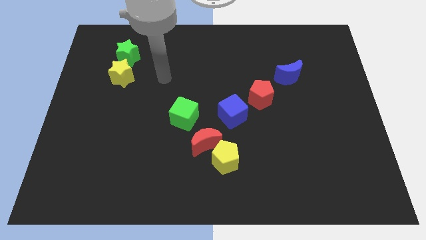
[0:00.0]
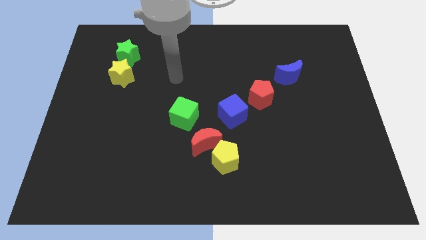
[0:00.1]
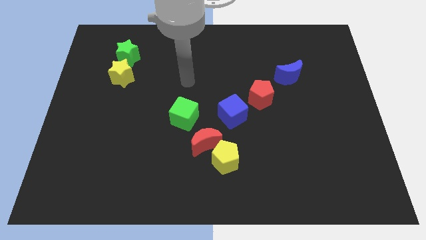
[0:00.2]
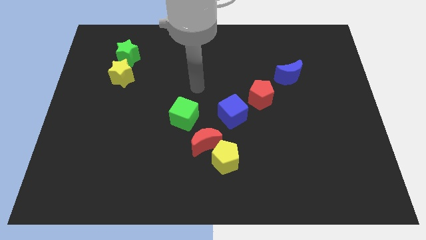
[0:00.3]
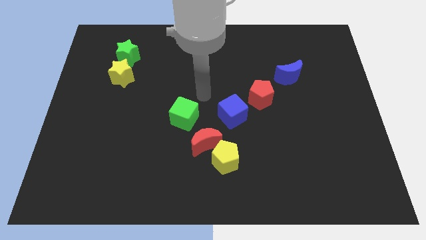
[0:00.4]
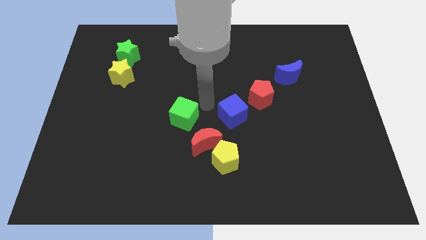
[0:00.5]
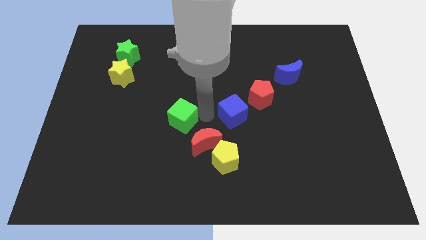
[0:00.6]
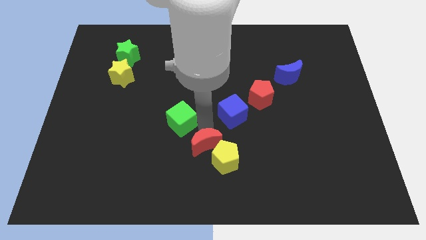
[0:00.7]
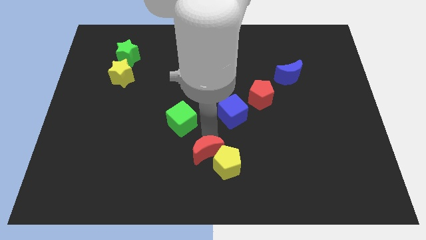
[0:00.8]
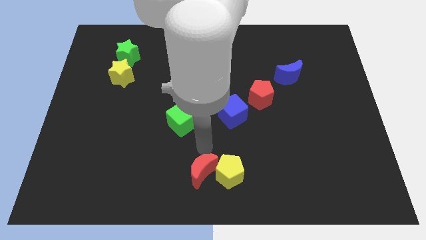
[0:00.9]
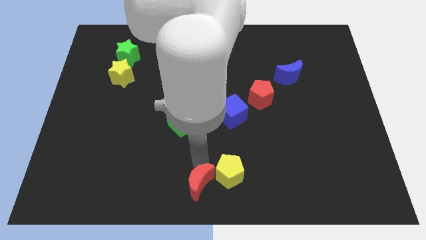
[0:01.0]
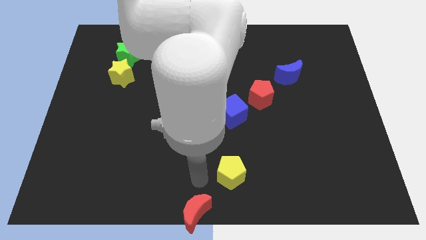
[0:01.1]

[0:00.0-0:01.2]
pull the yellow pentagon apart from the red moon

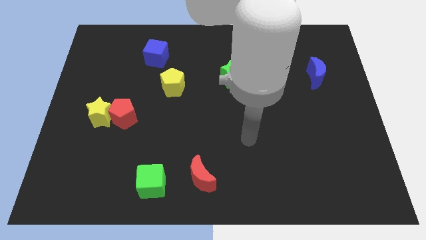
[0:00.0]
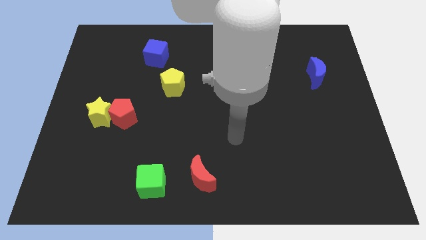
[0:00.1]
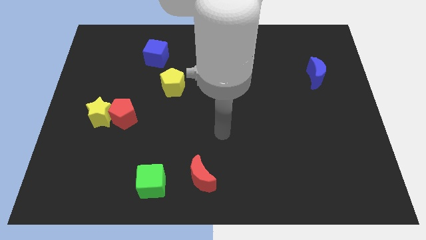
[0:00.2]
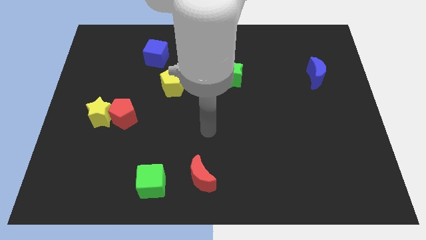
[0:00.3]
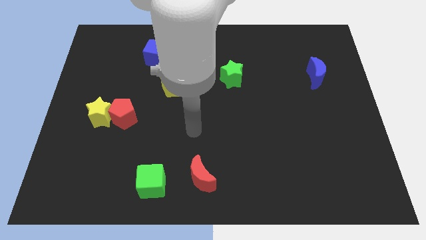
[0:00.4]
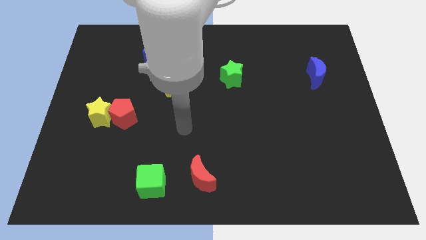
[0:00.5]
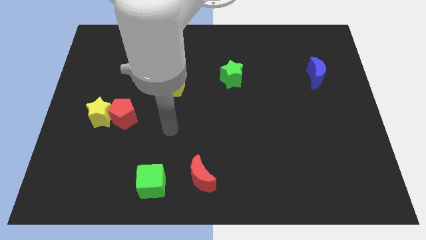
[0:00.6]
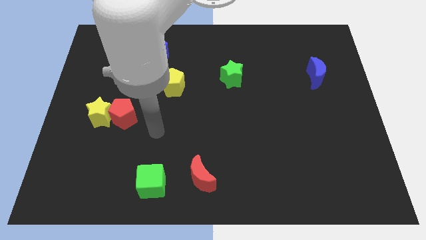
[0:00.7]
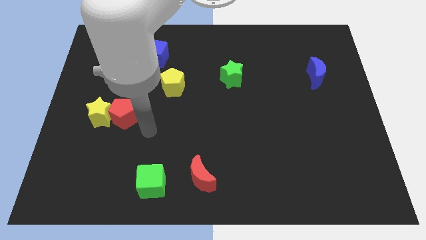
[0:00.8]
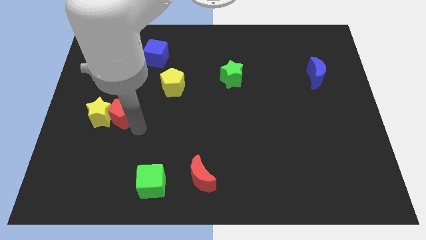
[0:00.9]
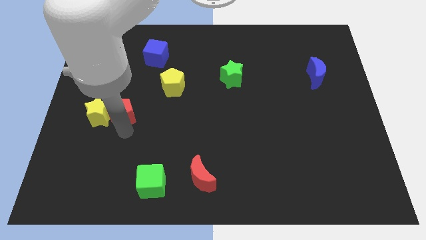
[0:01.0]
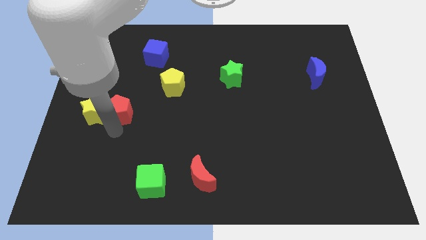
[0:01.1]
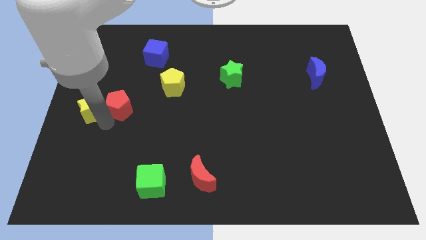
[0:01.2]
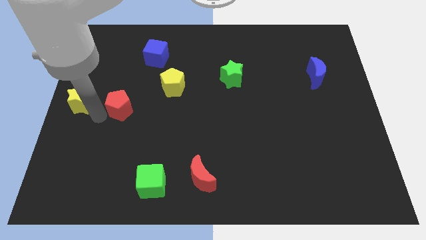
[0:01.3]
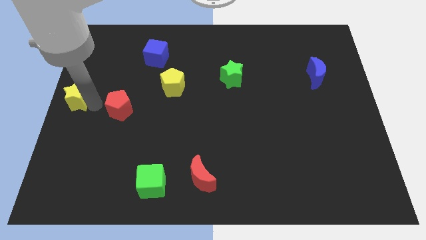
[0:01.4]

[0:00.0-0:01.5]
move the red pentagon away from the yellow star

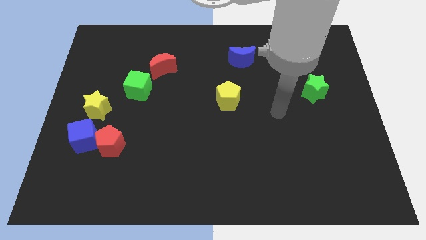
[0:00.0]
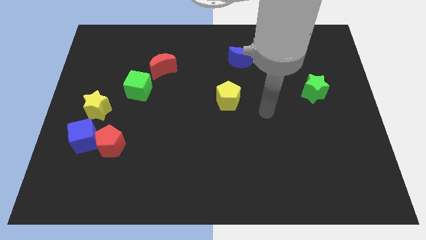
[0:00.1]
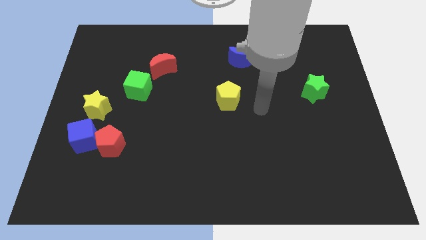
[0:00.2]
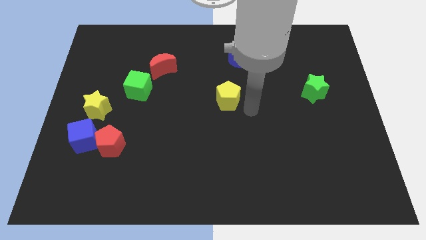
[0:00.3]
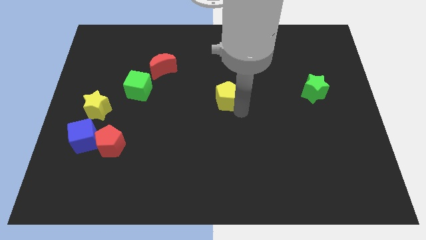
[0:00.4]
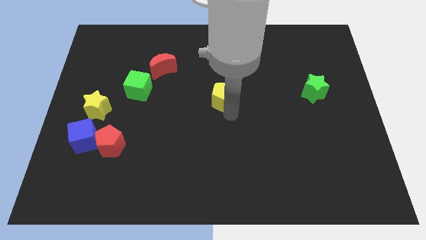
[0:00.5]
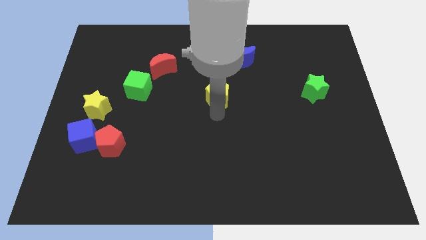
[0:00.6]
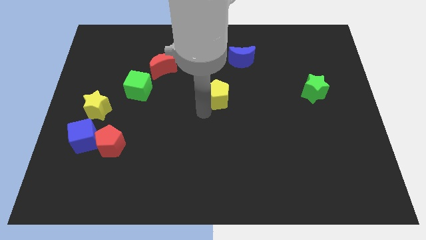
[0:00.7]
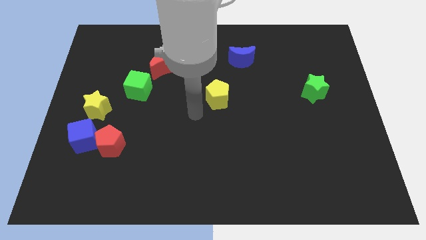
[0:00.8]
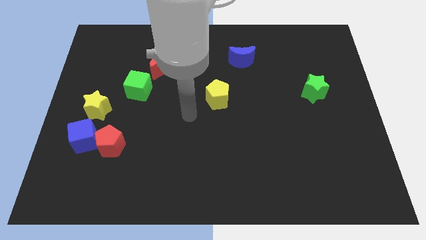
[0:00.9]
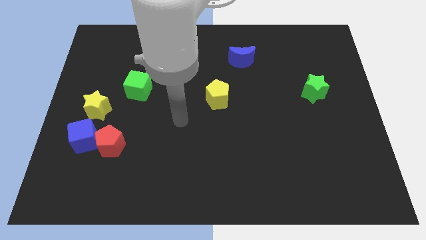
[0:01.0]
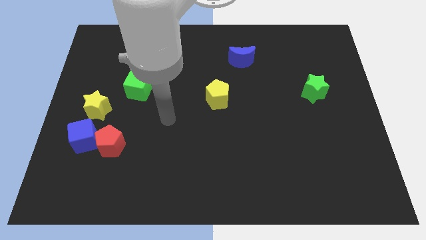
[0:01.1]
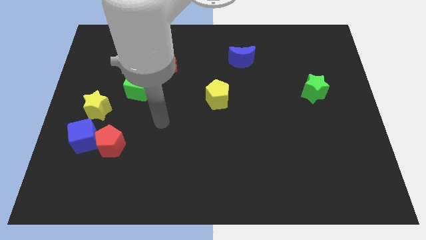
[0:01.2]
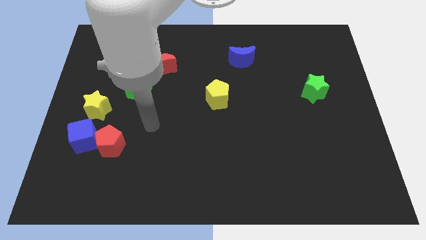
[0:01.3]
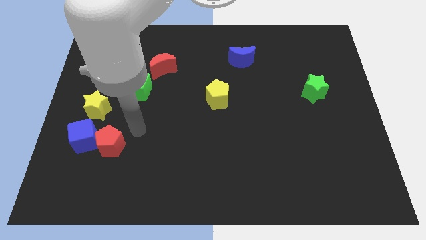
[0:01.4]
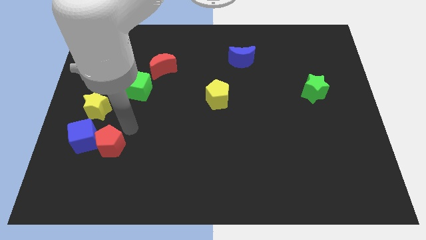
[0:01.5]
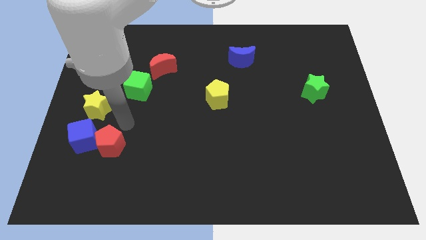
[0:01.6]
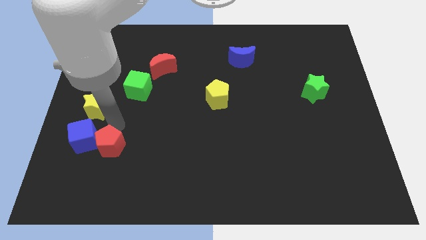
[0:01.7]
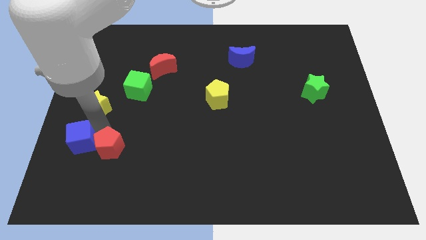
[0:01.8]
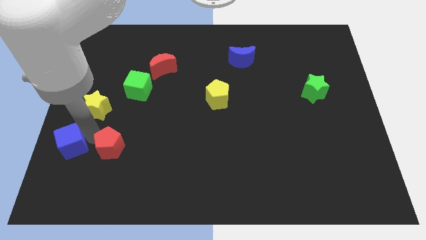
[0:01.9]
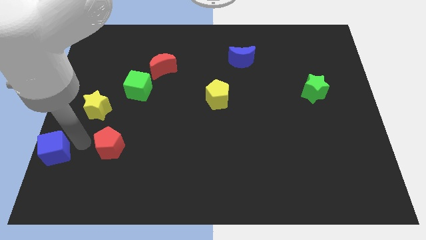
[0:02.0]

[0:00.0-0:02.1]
separate the red pentagon from the blue cube

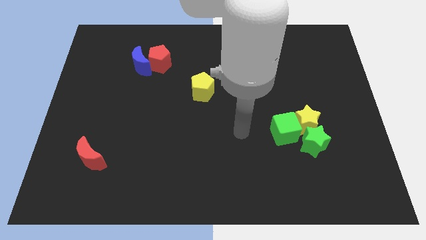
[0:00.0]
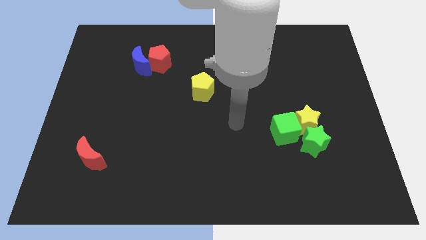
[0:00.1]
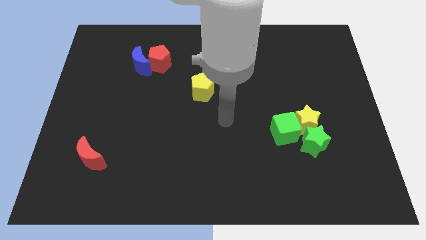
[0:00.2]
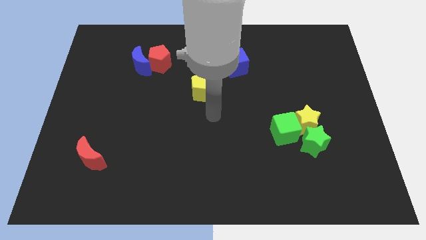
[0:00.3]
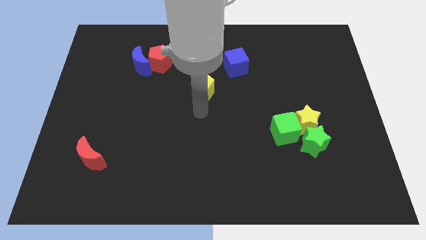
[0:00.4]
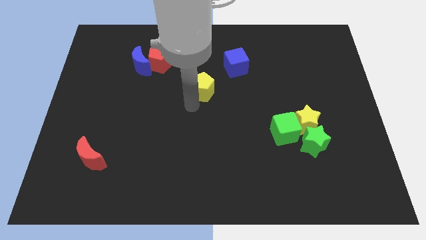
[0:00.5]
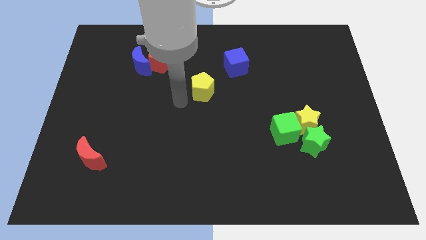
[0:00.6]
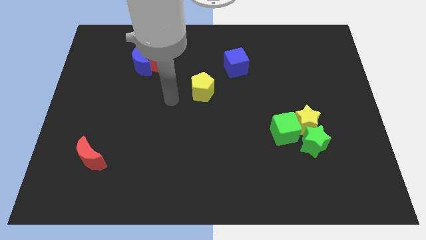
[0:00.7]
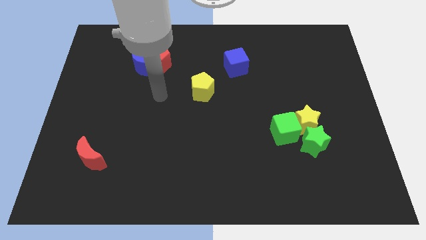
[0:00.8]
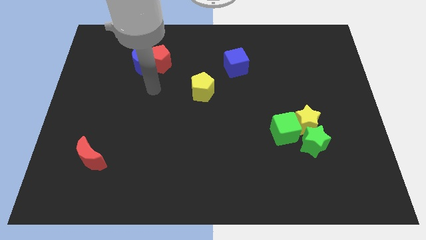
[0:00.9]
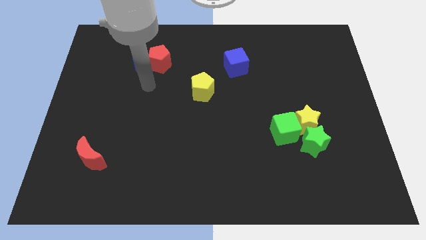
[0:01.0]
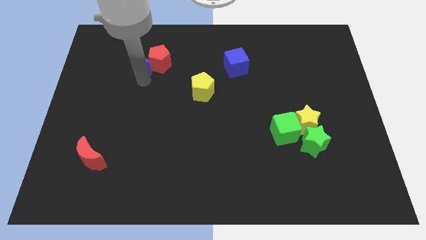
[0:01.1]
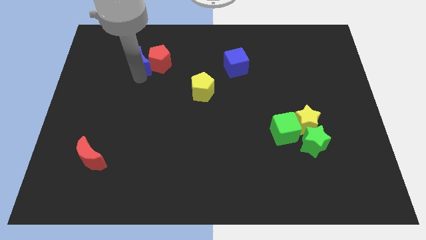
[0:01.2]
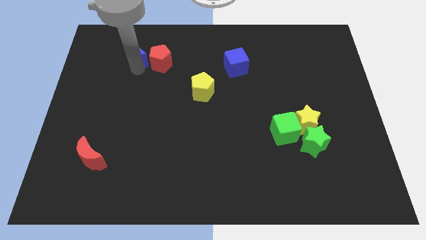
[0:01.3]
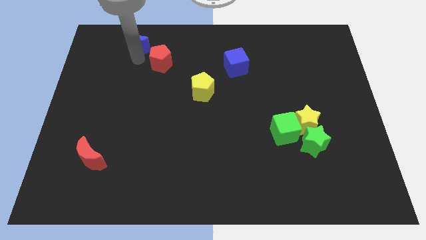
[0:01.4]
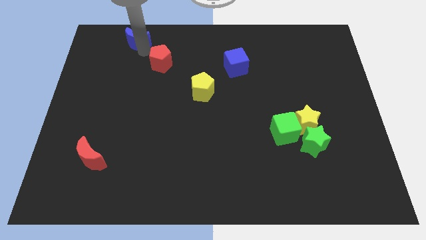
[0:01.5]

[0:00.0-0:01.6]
pull the red pentagon apart from the blue moon

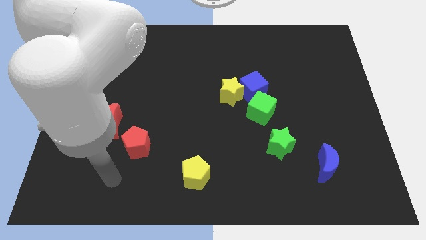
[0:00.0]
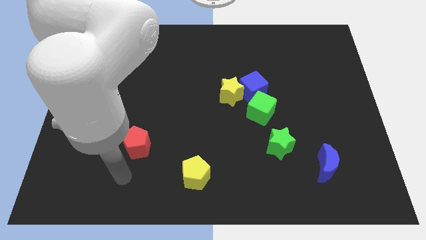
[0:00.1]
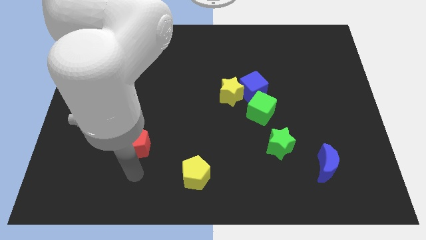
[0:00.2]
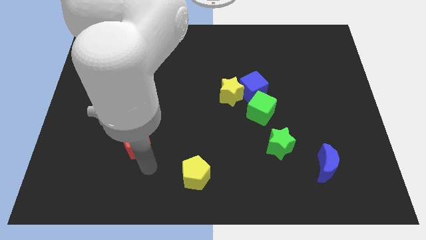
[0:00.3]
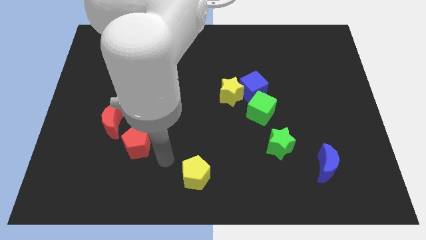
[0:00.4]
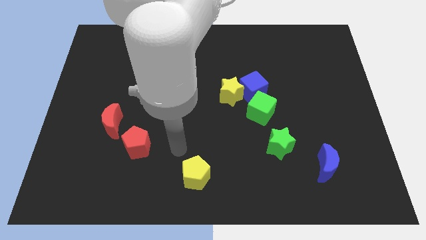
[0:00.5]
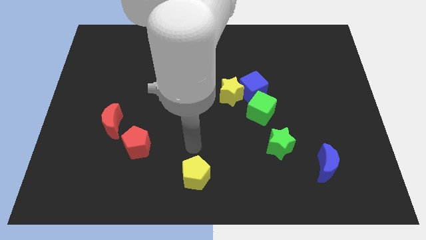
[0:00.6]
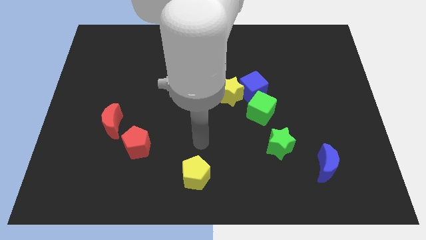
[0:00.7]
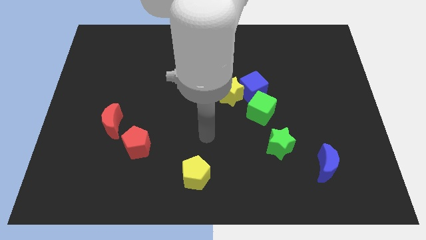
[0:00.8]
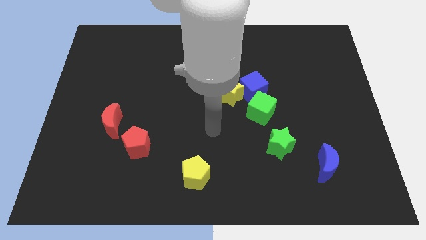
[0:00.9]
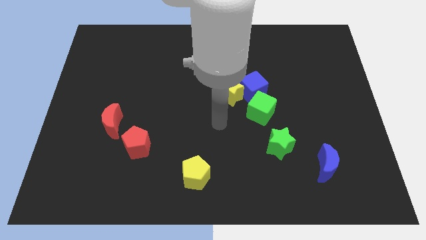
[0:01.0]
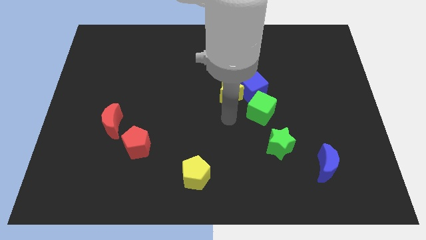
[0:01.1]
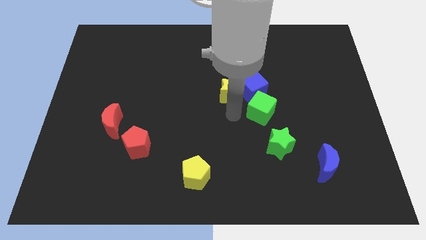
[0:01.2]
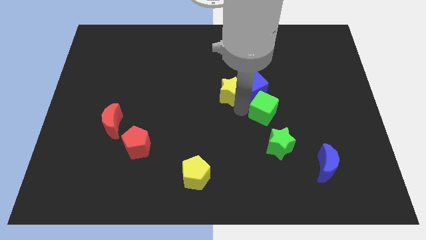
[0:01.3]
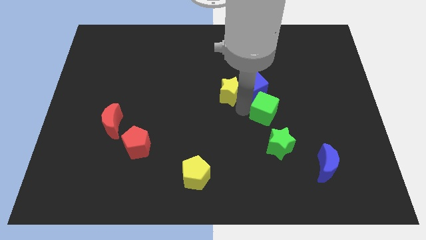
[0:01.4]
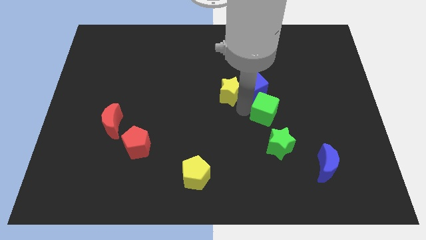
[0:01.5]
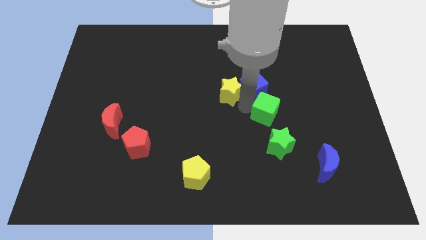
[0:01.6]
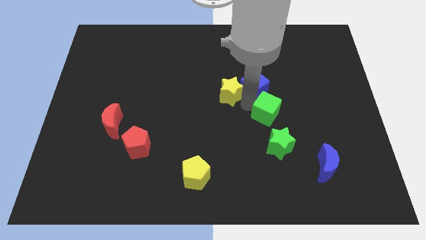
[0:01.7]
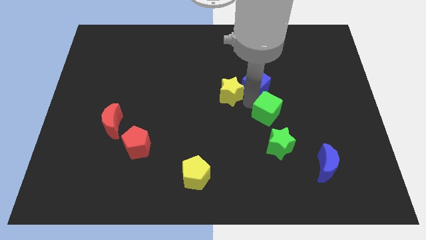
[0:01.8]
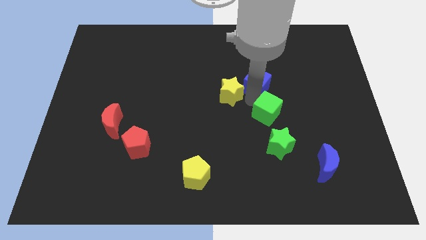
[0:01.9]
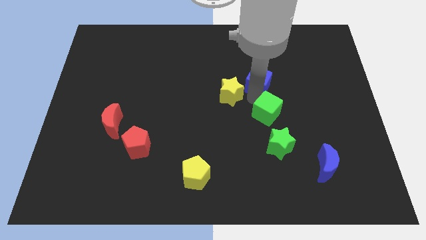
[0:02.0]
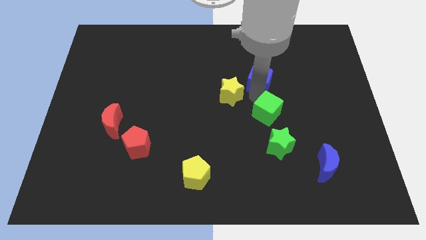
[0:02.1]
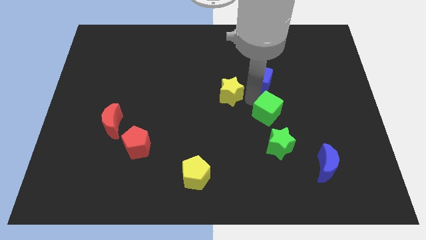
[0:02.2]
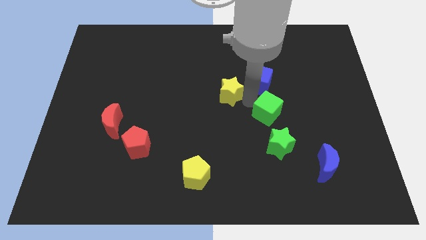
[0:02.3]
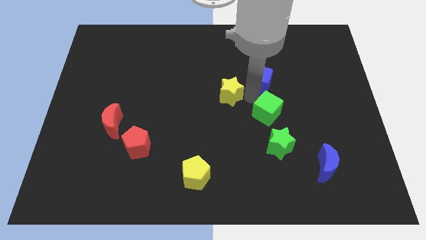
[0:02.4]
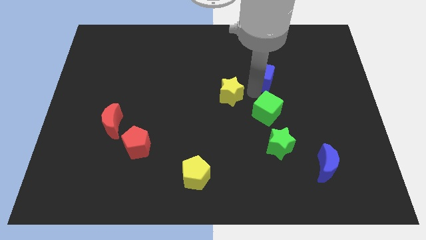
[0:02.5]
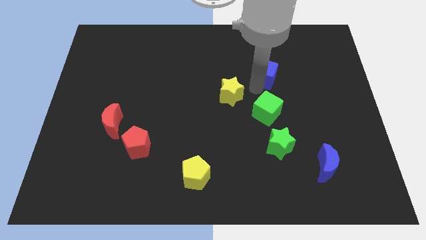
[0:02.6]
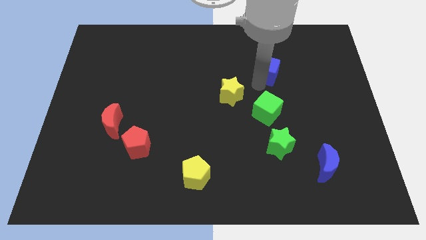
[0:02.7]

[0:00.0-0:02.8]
separate the blue cube from the yellow star and green cube
